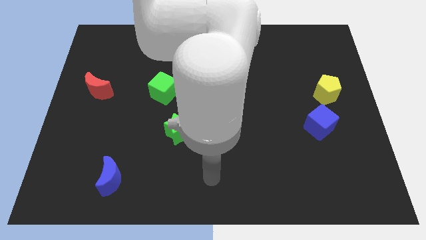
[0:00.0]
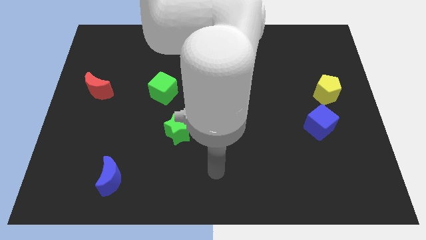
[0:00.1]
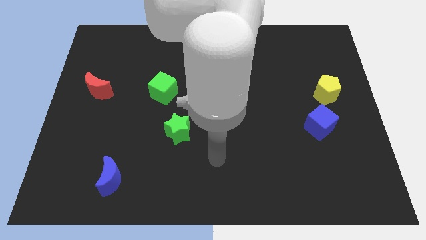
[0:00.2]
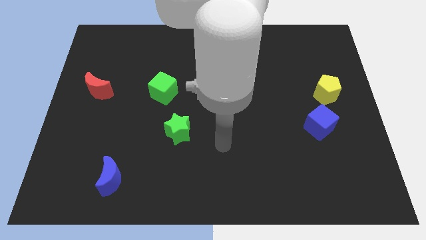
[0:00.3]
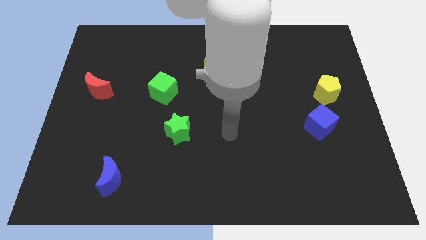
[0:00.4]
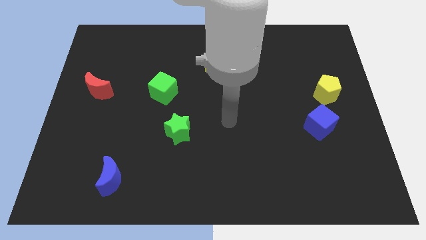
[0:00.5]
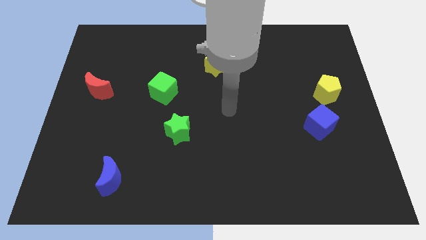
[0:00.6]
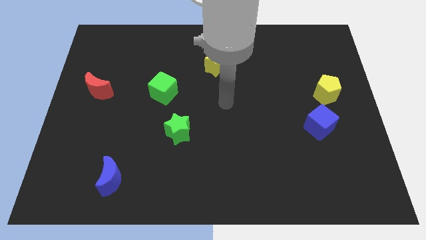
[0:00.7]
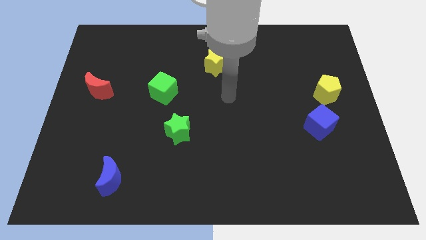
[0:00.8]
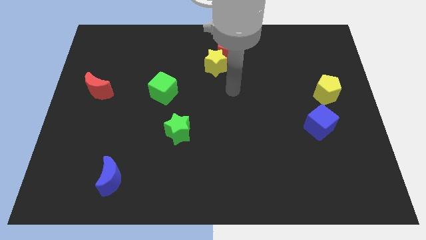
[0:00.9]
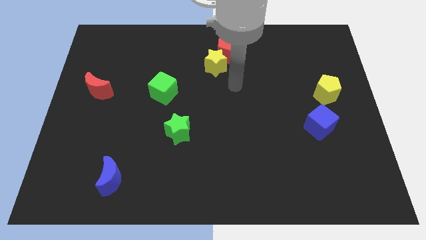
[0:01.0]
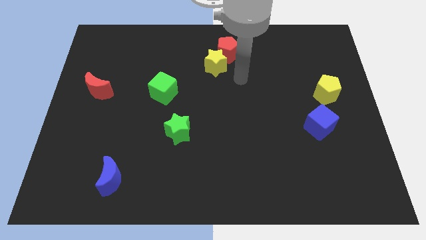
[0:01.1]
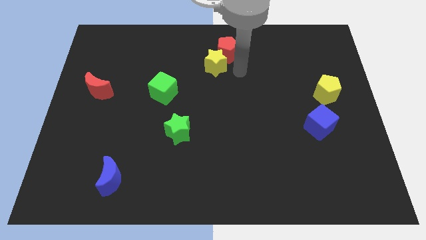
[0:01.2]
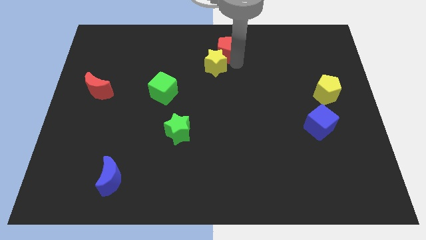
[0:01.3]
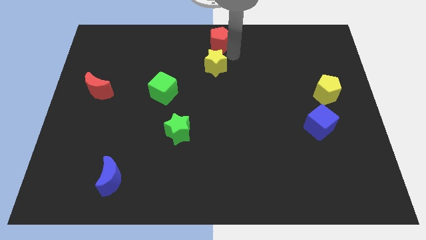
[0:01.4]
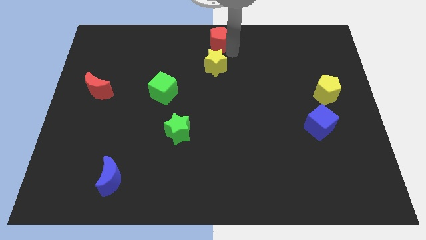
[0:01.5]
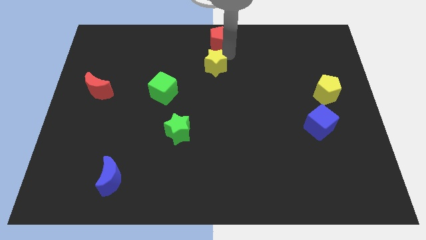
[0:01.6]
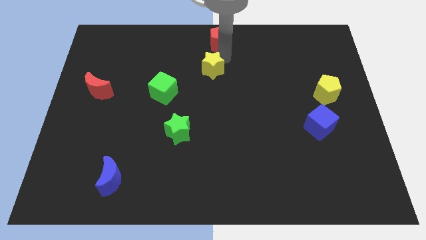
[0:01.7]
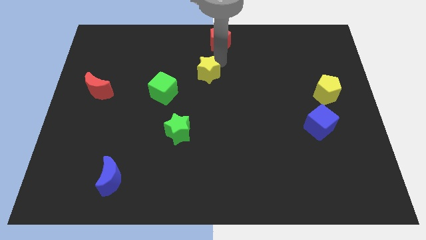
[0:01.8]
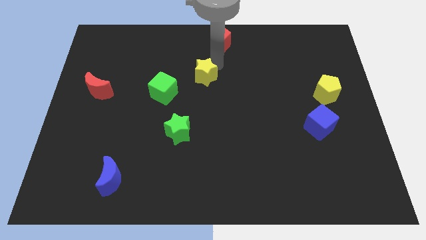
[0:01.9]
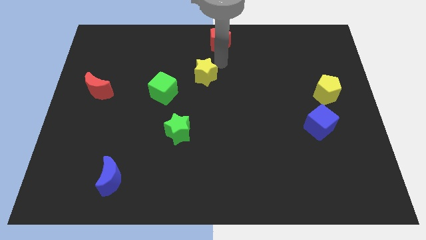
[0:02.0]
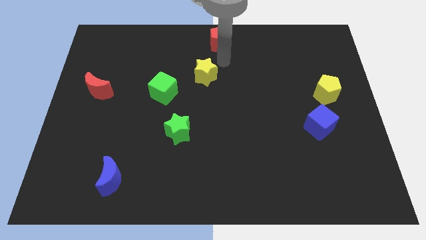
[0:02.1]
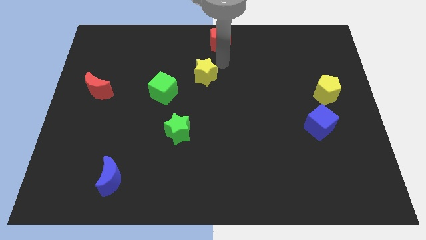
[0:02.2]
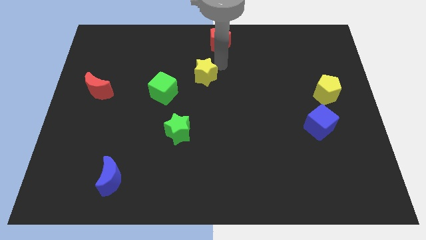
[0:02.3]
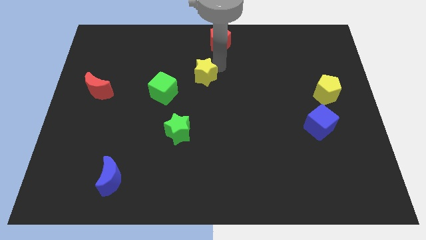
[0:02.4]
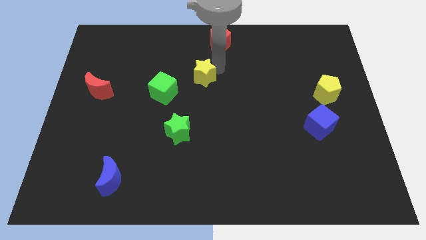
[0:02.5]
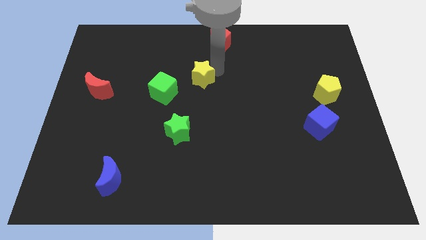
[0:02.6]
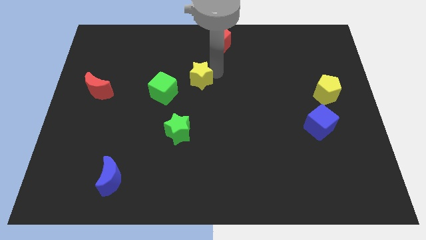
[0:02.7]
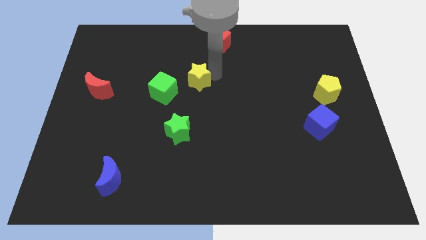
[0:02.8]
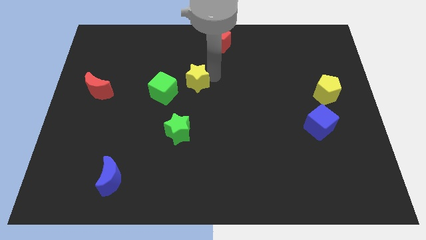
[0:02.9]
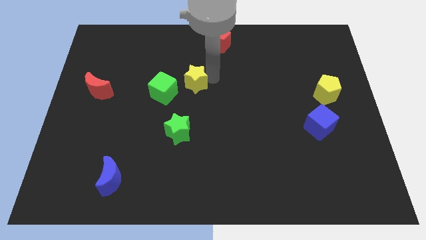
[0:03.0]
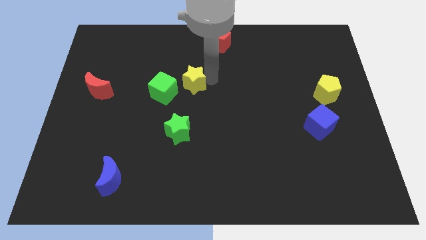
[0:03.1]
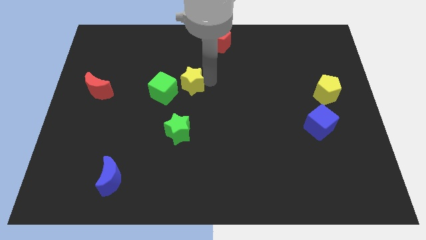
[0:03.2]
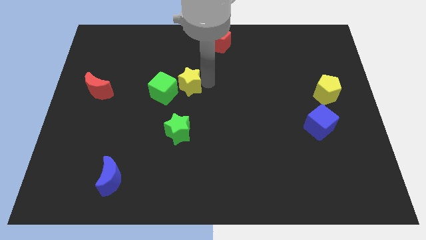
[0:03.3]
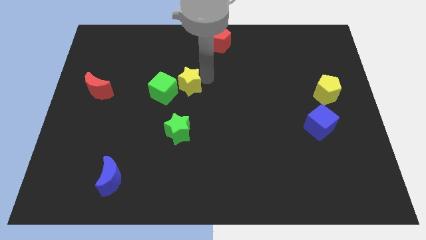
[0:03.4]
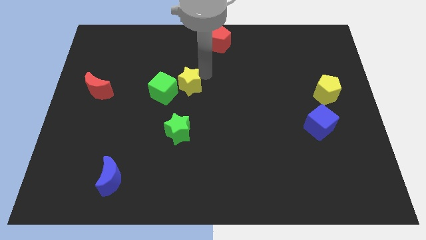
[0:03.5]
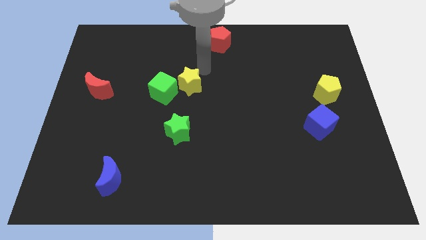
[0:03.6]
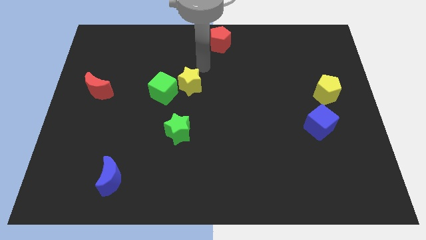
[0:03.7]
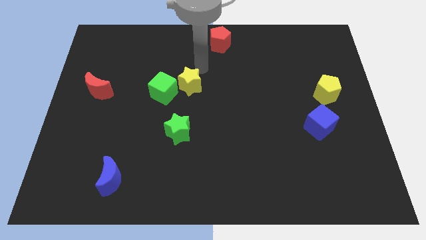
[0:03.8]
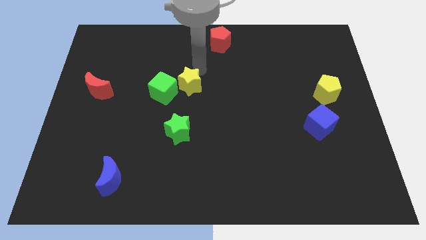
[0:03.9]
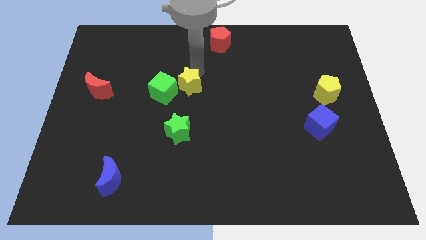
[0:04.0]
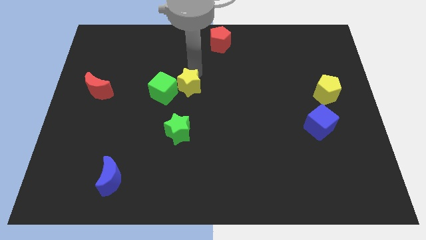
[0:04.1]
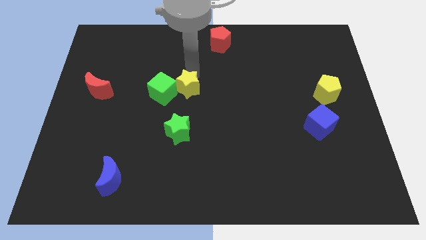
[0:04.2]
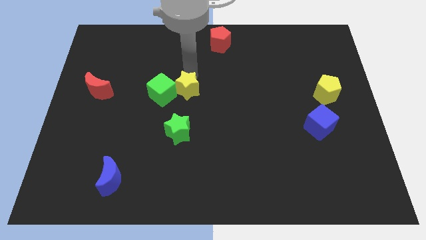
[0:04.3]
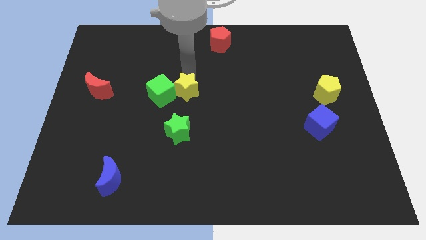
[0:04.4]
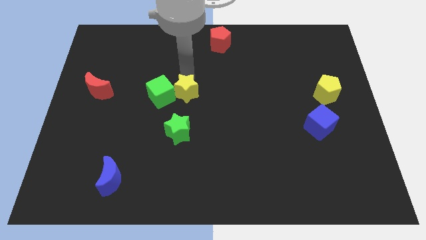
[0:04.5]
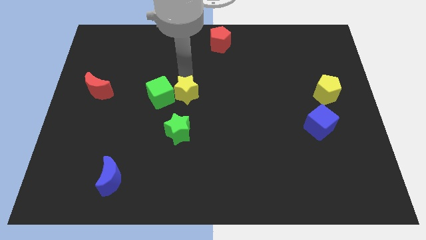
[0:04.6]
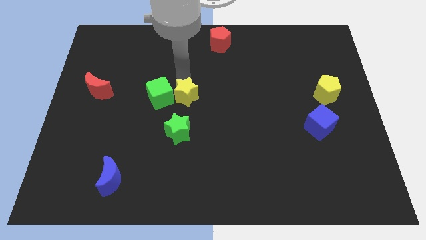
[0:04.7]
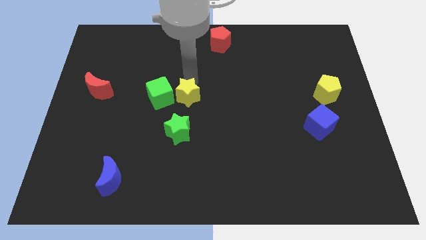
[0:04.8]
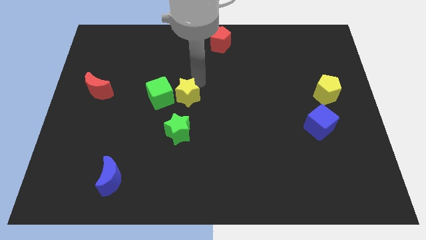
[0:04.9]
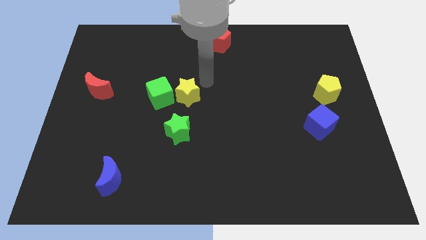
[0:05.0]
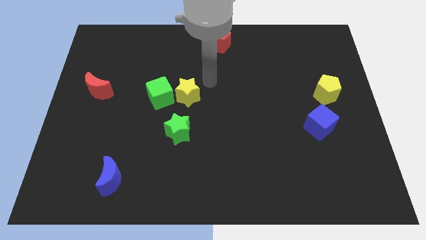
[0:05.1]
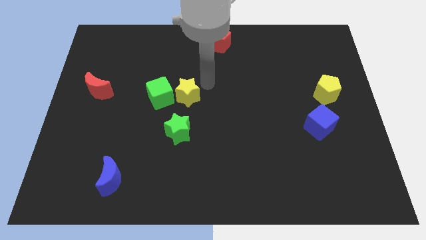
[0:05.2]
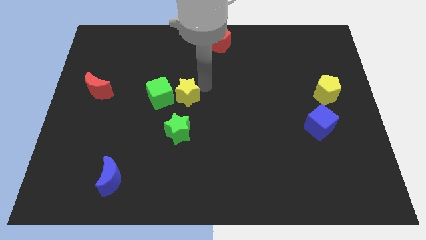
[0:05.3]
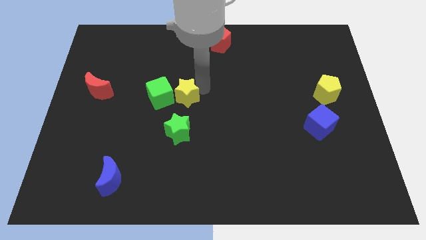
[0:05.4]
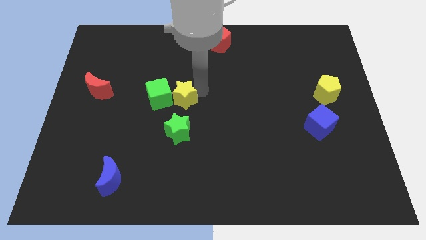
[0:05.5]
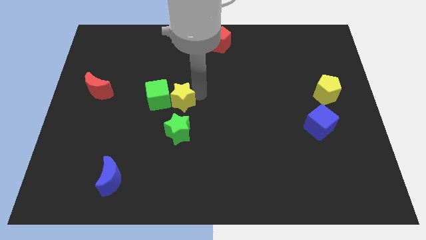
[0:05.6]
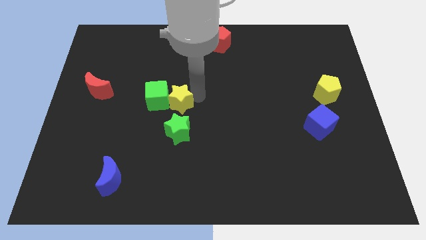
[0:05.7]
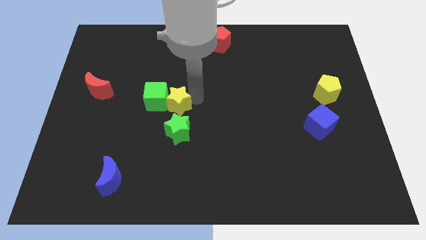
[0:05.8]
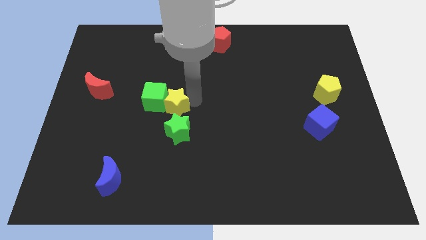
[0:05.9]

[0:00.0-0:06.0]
put the yellow star to the top left side of the green star

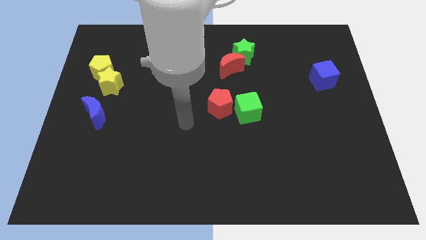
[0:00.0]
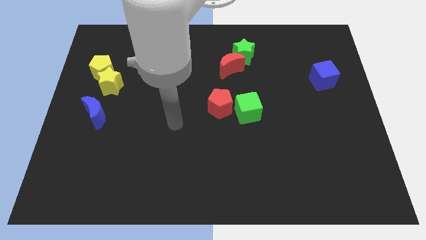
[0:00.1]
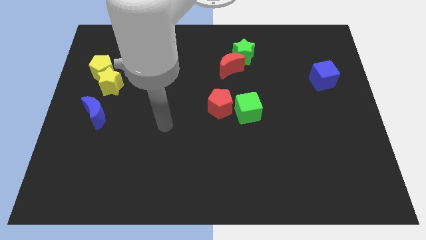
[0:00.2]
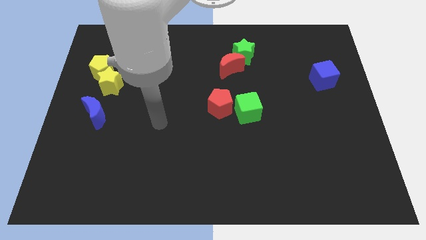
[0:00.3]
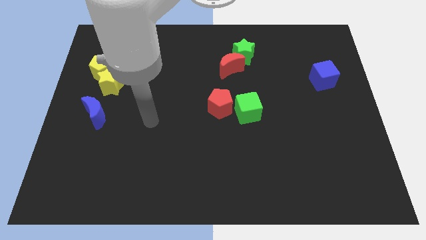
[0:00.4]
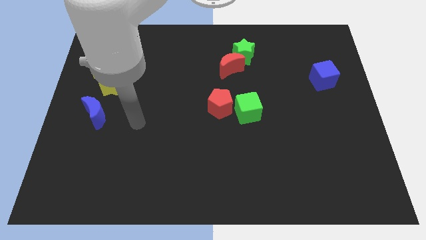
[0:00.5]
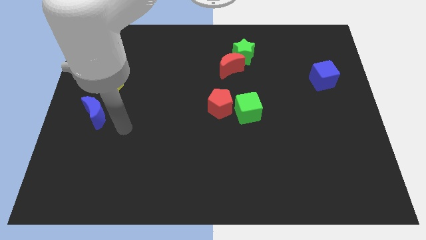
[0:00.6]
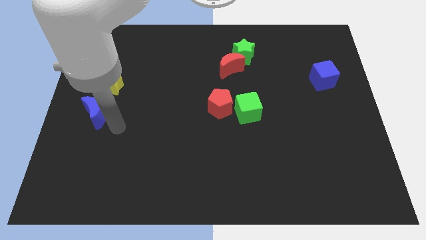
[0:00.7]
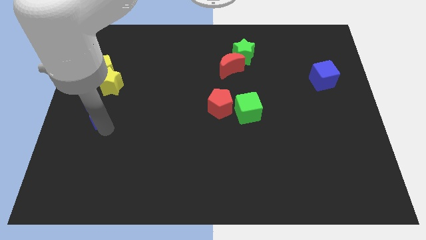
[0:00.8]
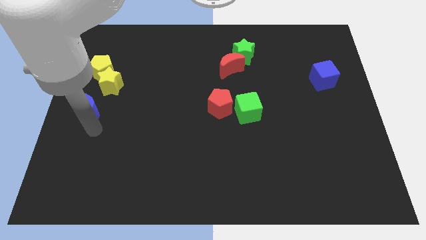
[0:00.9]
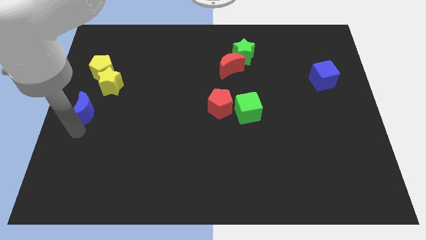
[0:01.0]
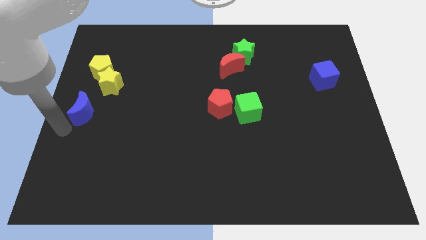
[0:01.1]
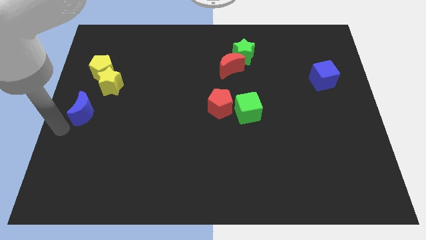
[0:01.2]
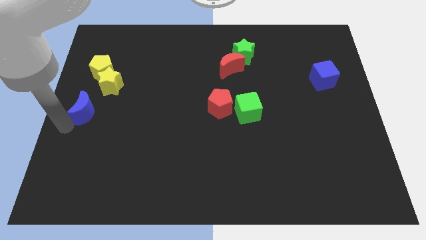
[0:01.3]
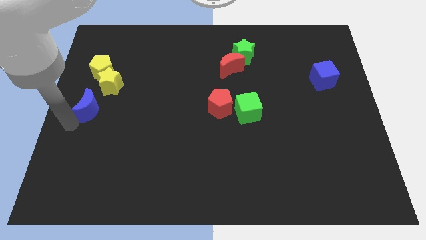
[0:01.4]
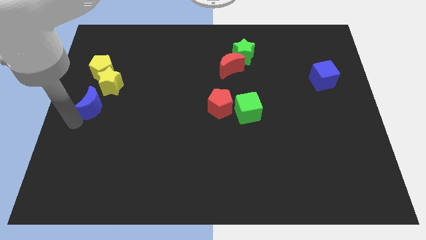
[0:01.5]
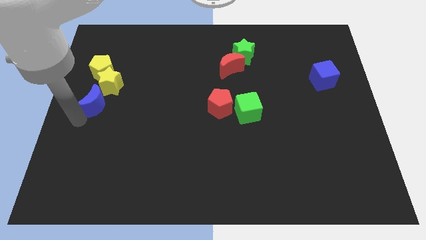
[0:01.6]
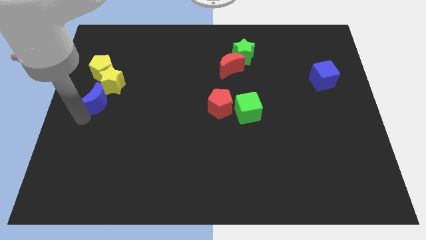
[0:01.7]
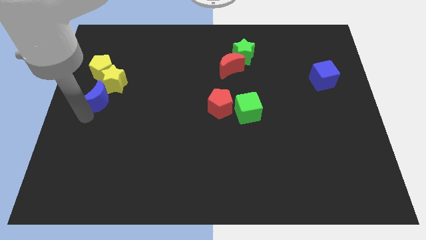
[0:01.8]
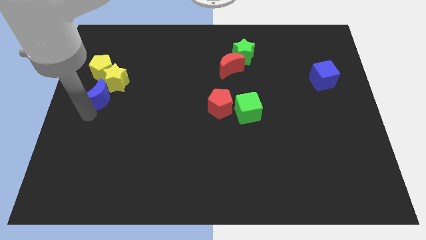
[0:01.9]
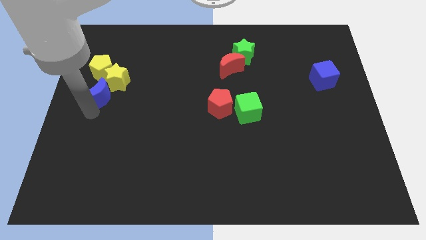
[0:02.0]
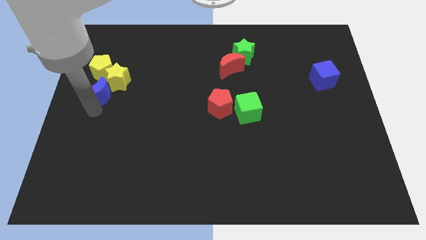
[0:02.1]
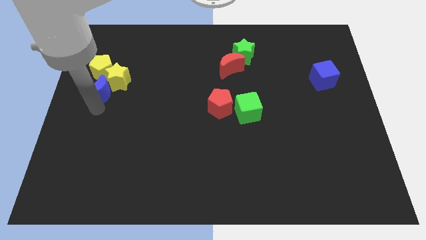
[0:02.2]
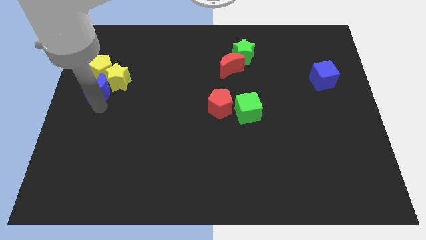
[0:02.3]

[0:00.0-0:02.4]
slide the blue moon diagonally down and to the right of the yellow pentagon
